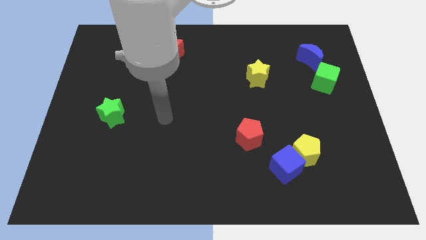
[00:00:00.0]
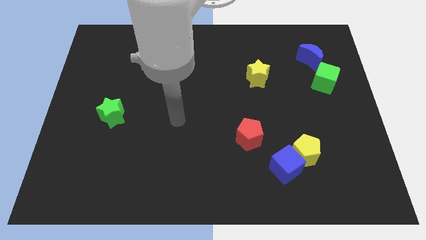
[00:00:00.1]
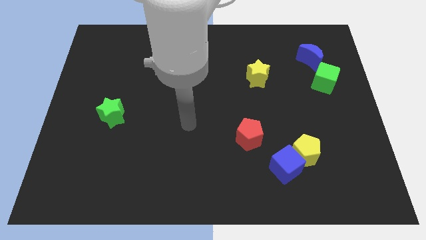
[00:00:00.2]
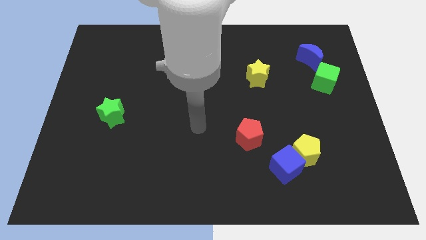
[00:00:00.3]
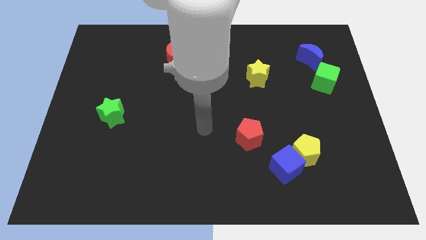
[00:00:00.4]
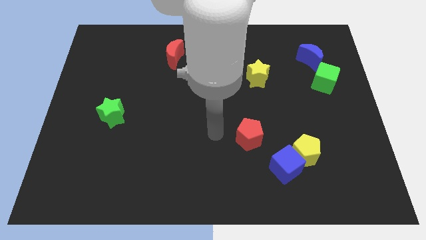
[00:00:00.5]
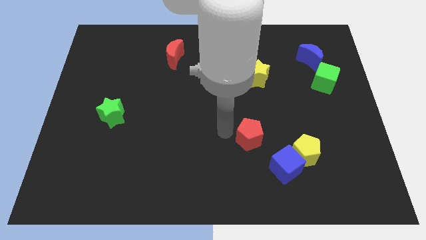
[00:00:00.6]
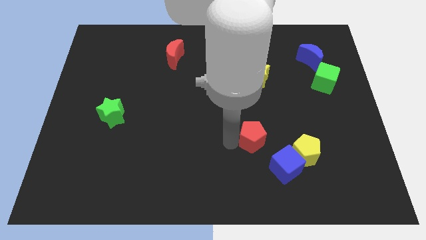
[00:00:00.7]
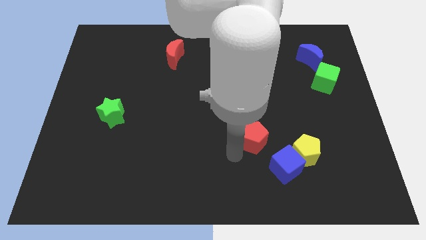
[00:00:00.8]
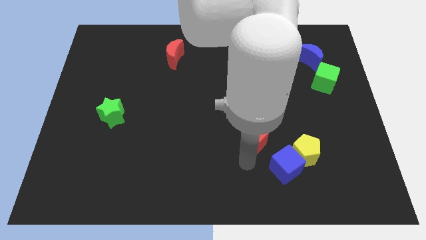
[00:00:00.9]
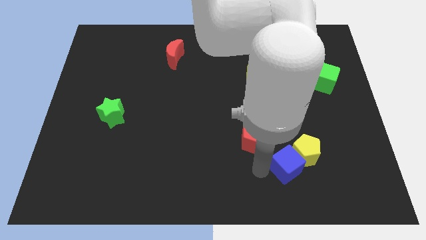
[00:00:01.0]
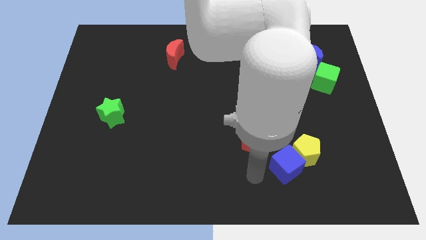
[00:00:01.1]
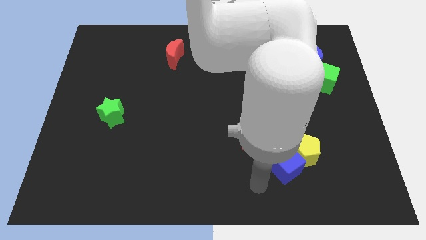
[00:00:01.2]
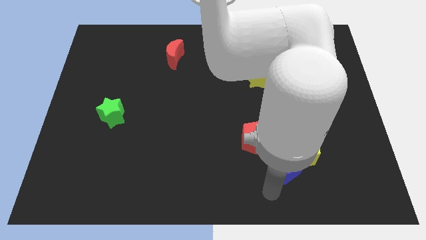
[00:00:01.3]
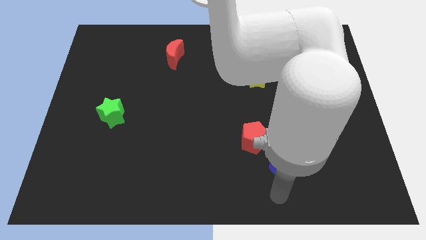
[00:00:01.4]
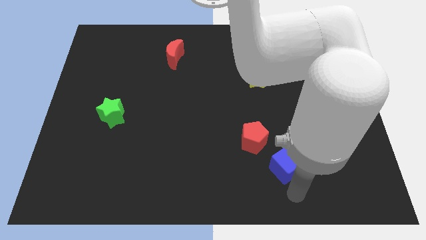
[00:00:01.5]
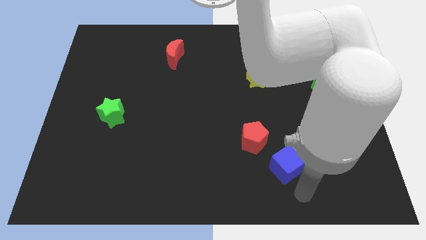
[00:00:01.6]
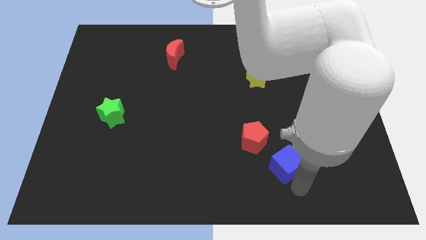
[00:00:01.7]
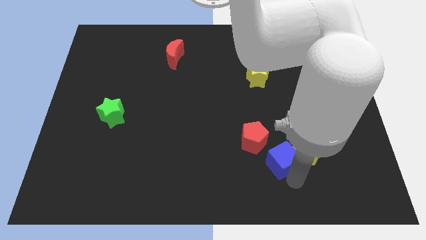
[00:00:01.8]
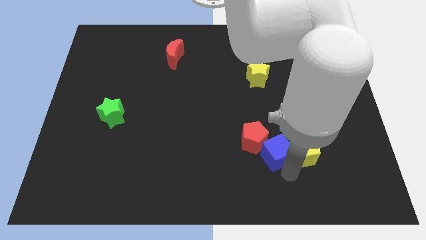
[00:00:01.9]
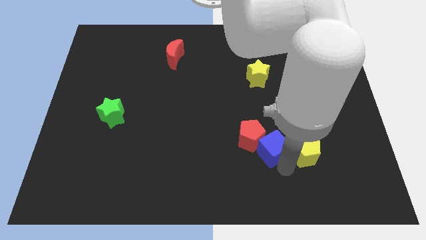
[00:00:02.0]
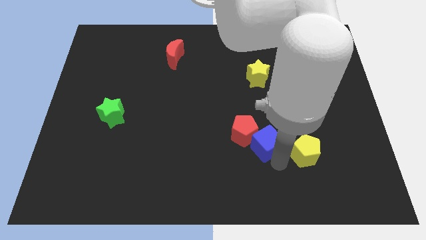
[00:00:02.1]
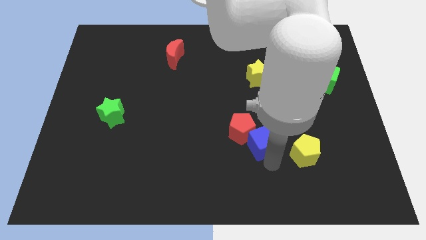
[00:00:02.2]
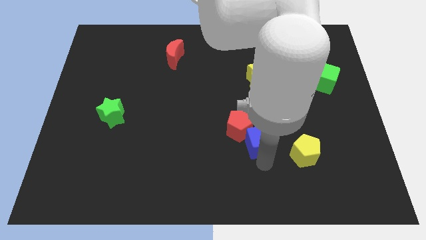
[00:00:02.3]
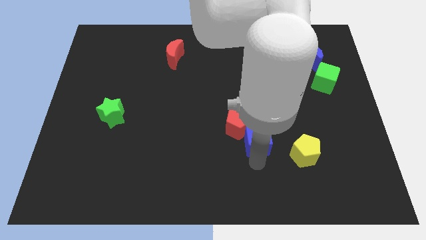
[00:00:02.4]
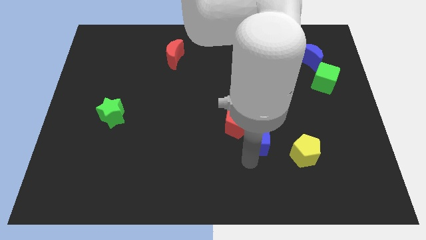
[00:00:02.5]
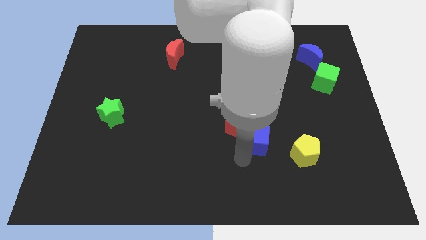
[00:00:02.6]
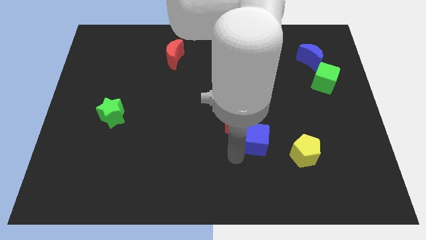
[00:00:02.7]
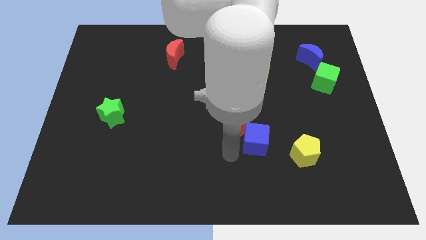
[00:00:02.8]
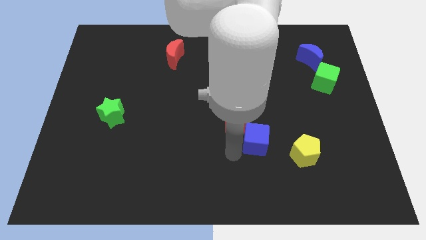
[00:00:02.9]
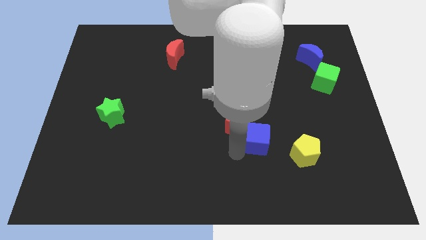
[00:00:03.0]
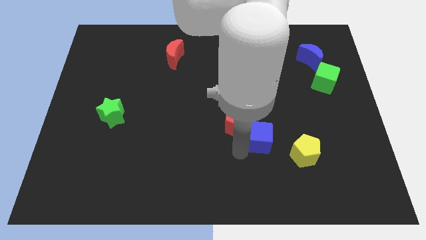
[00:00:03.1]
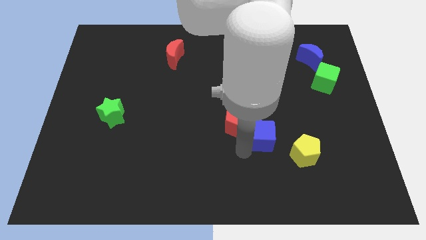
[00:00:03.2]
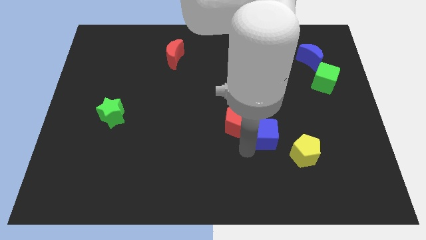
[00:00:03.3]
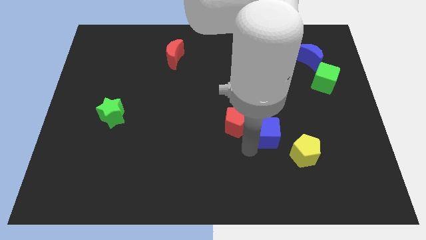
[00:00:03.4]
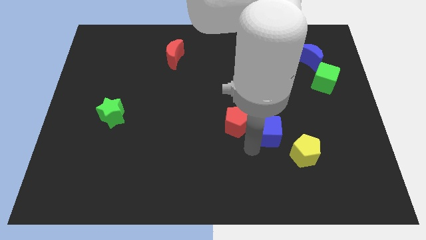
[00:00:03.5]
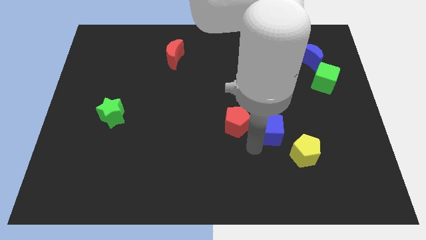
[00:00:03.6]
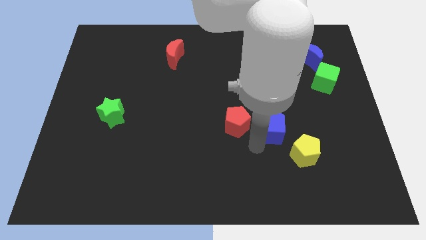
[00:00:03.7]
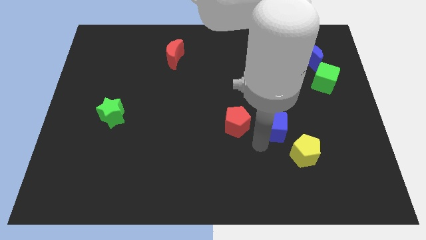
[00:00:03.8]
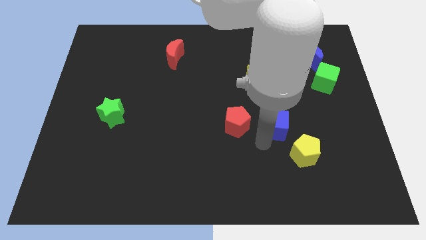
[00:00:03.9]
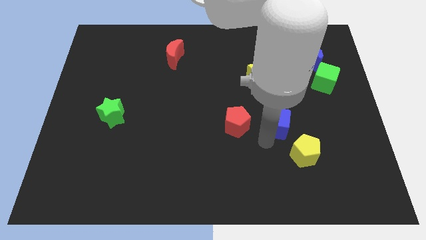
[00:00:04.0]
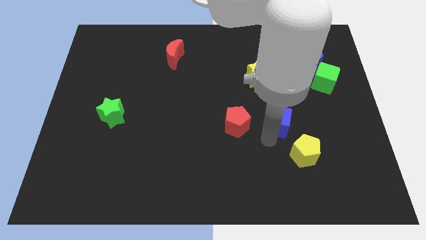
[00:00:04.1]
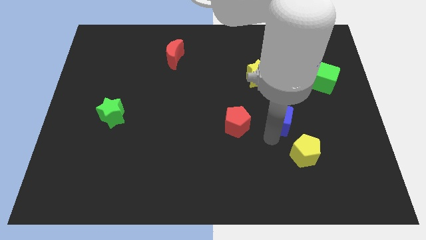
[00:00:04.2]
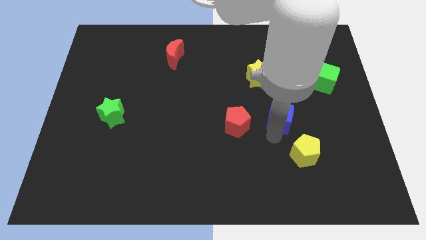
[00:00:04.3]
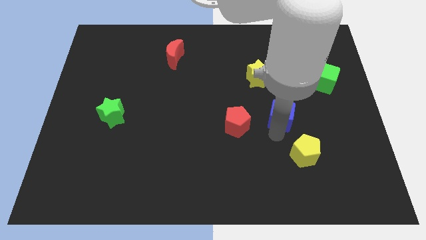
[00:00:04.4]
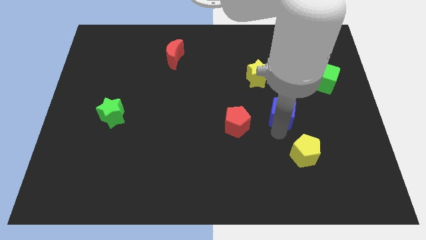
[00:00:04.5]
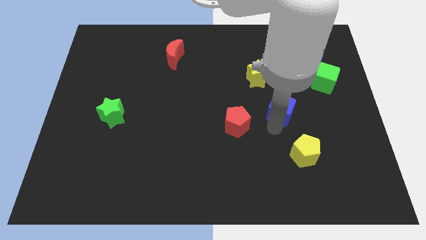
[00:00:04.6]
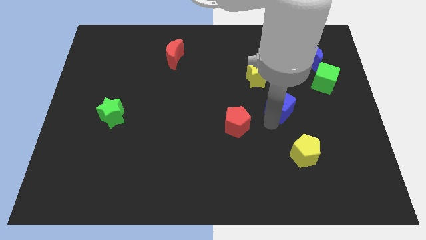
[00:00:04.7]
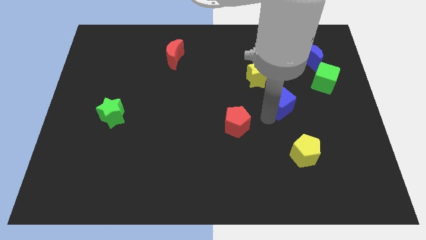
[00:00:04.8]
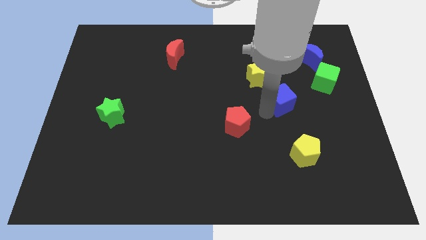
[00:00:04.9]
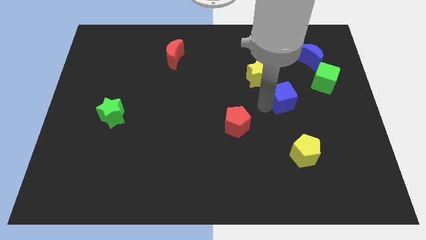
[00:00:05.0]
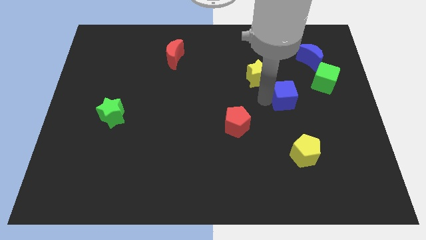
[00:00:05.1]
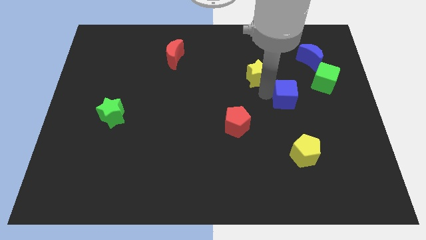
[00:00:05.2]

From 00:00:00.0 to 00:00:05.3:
push the blue cube upwards and to the right somewhat

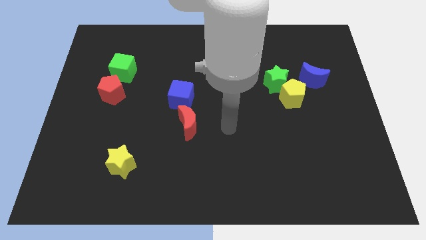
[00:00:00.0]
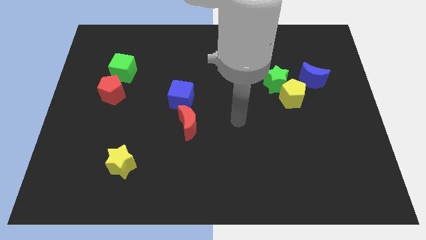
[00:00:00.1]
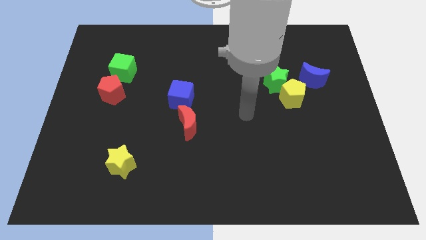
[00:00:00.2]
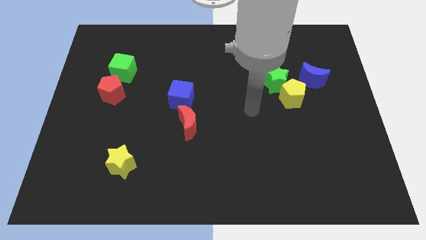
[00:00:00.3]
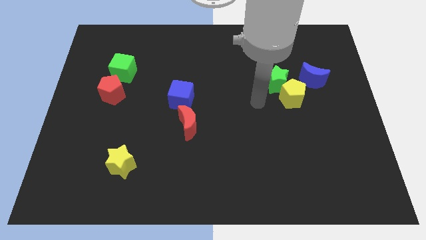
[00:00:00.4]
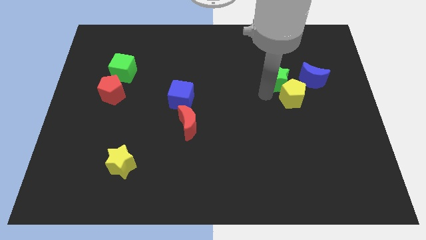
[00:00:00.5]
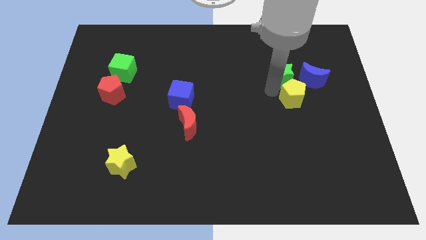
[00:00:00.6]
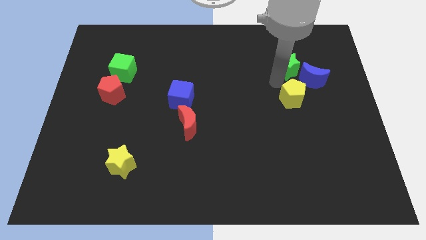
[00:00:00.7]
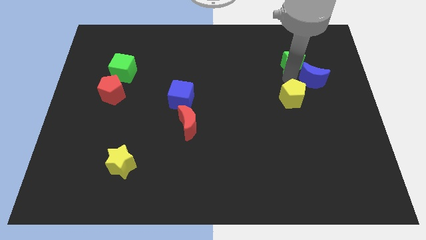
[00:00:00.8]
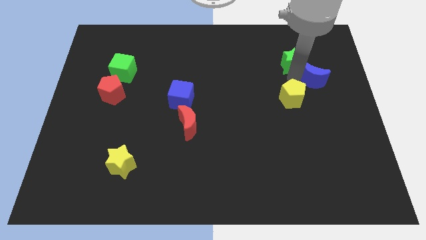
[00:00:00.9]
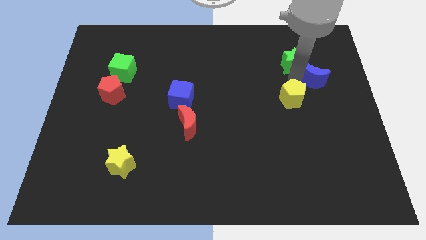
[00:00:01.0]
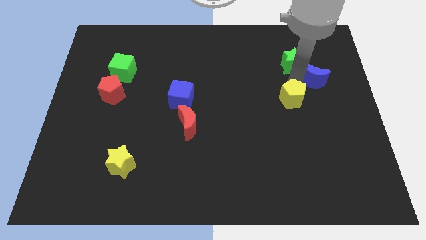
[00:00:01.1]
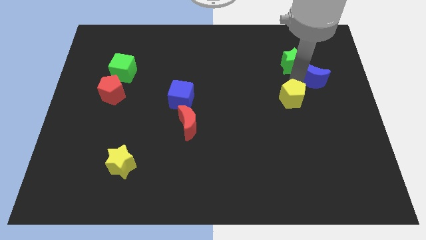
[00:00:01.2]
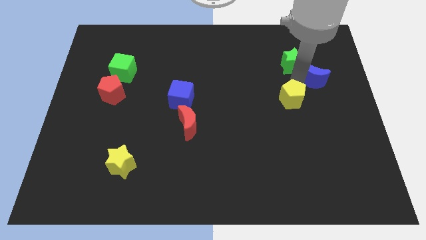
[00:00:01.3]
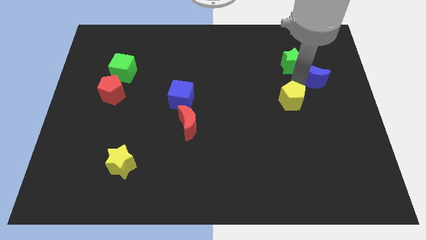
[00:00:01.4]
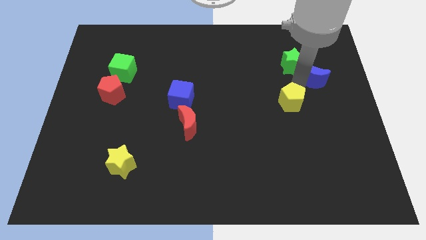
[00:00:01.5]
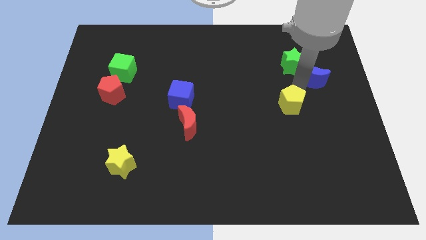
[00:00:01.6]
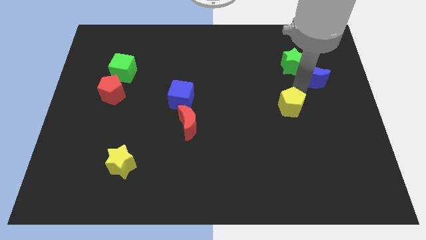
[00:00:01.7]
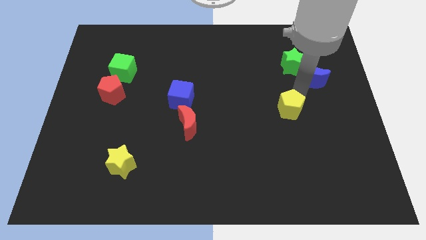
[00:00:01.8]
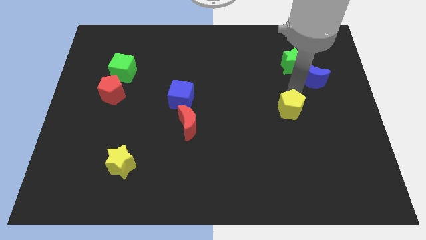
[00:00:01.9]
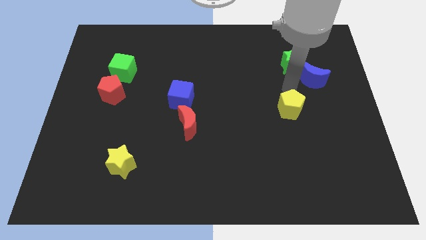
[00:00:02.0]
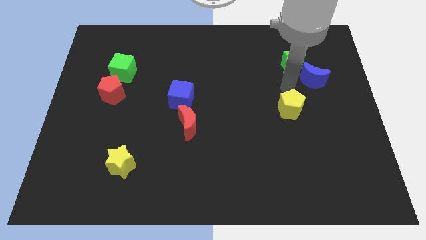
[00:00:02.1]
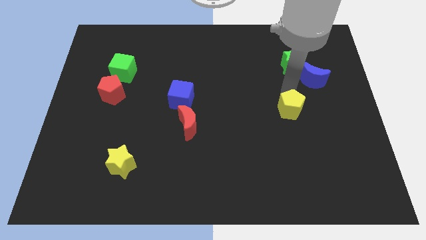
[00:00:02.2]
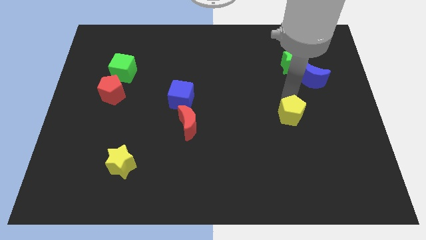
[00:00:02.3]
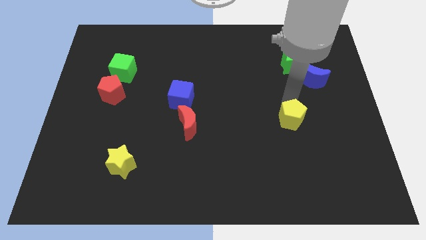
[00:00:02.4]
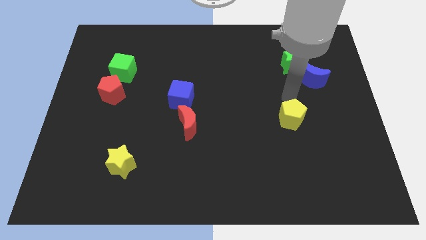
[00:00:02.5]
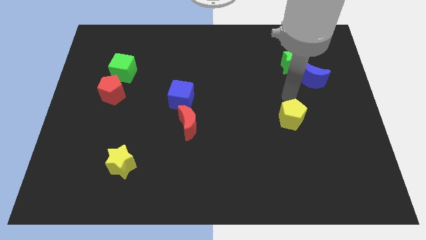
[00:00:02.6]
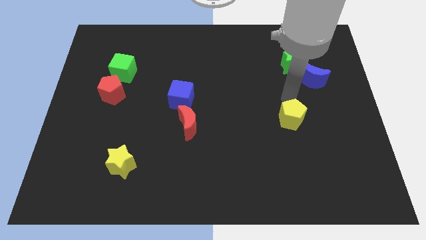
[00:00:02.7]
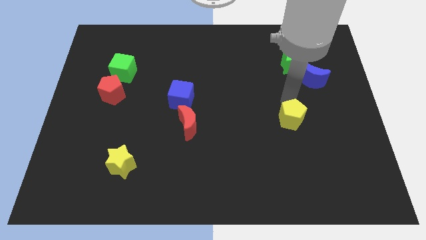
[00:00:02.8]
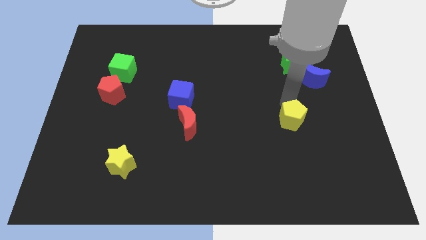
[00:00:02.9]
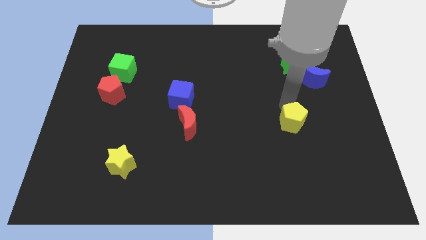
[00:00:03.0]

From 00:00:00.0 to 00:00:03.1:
move the yellow pentagon down a little

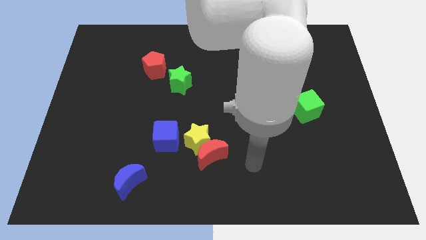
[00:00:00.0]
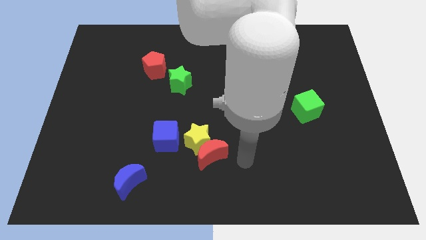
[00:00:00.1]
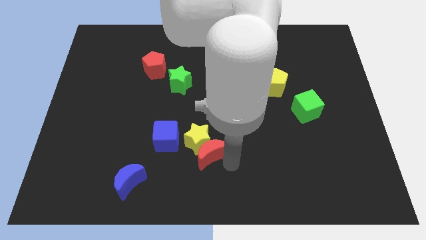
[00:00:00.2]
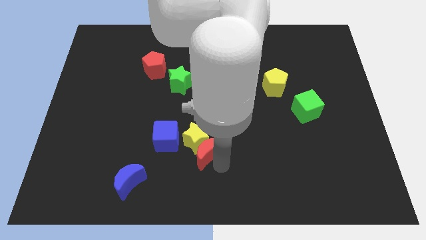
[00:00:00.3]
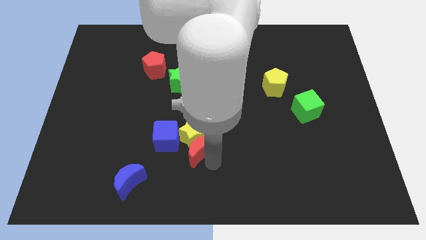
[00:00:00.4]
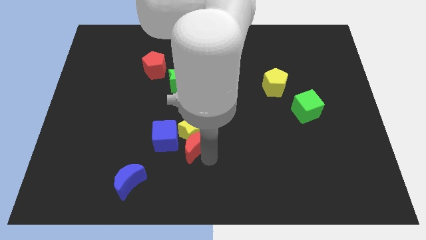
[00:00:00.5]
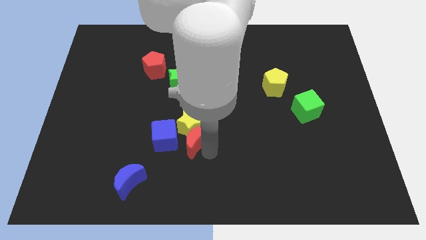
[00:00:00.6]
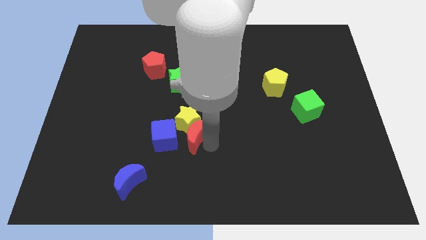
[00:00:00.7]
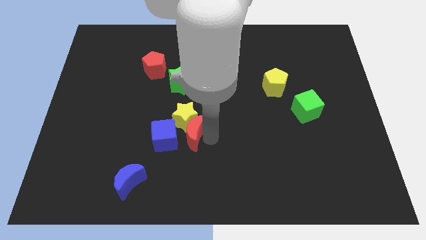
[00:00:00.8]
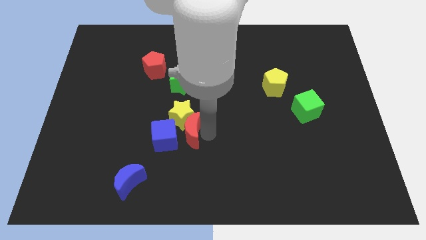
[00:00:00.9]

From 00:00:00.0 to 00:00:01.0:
slightly move the yellow star up and left
